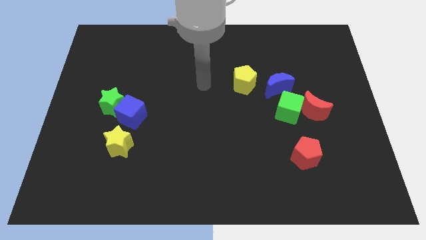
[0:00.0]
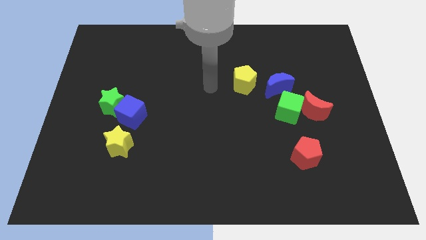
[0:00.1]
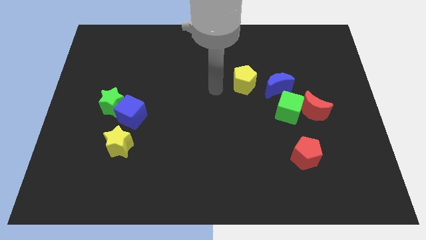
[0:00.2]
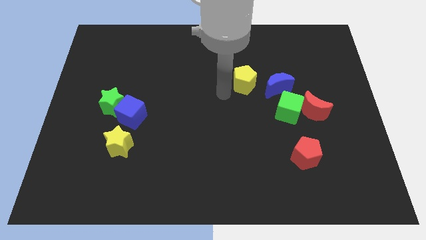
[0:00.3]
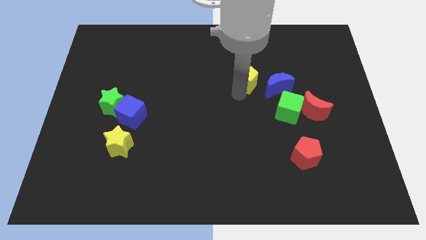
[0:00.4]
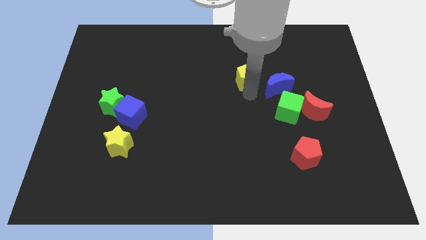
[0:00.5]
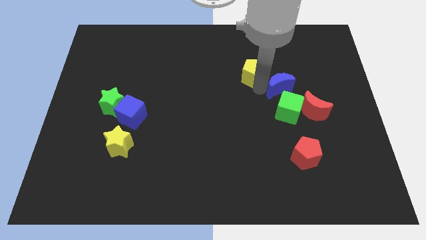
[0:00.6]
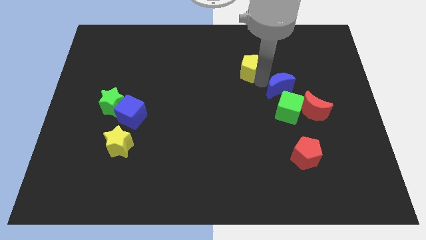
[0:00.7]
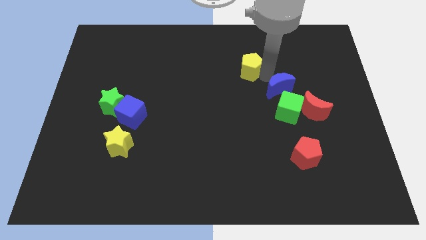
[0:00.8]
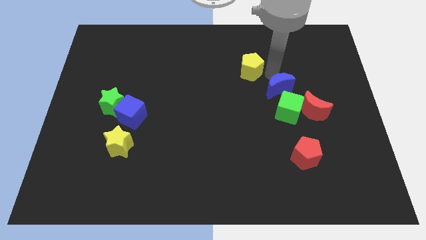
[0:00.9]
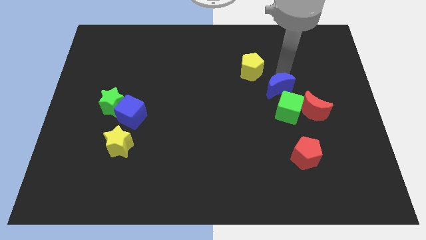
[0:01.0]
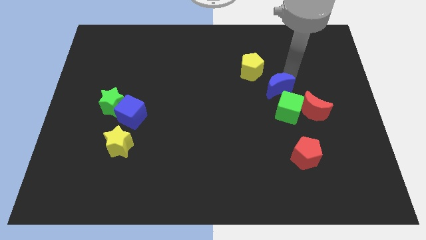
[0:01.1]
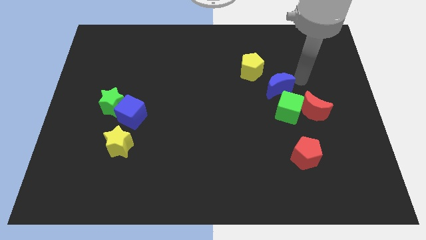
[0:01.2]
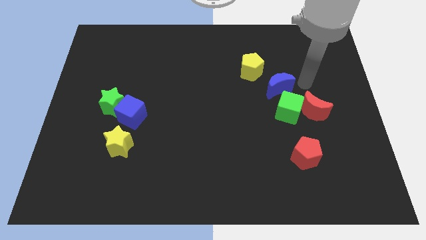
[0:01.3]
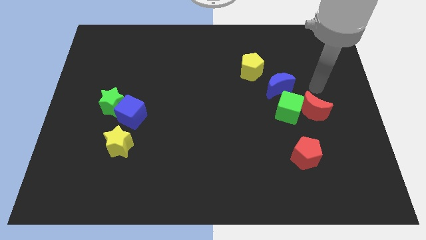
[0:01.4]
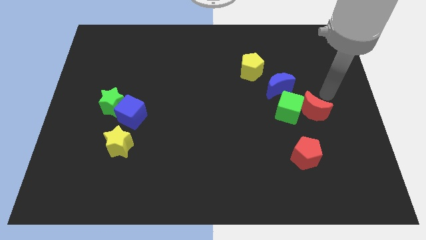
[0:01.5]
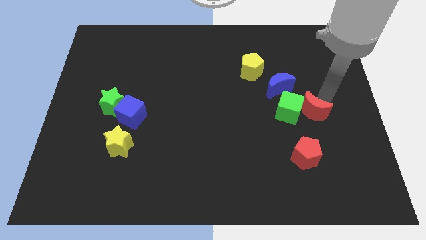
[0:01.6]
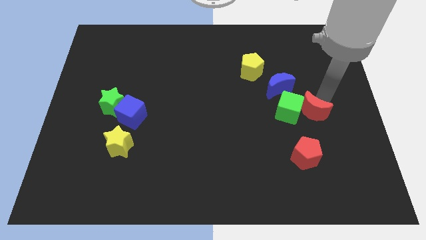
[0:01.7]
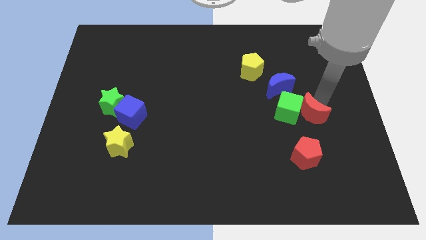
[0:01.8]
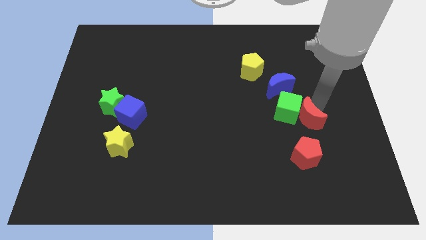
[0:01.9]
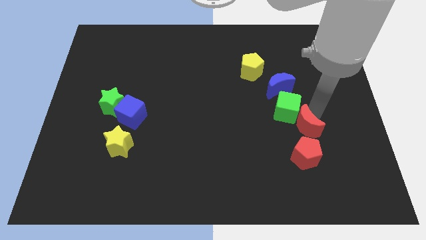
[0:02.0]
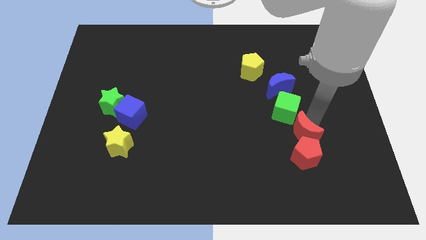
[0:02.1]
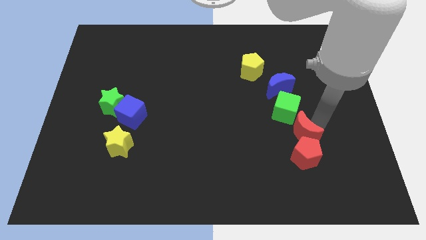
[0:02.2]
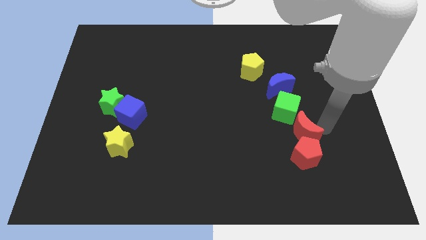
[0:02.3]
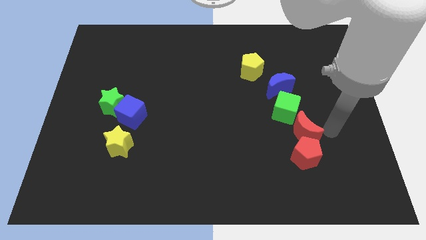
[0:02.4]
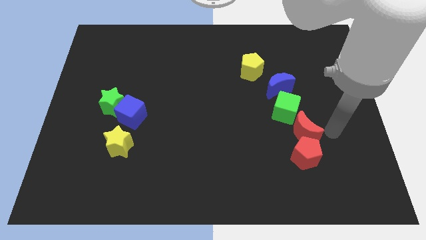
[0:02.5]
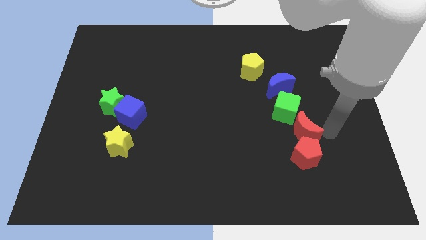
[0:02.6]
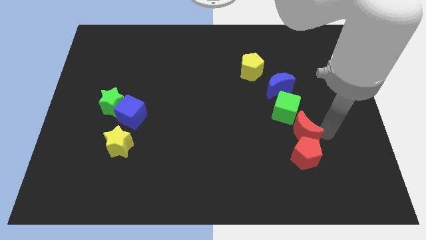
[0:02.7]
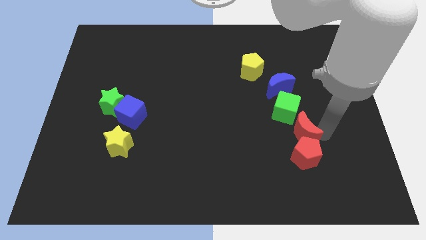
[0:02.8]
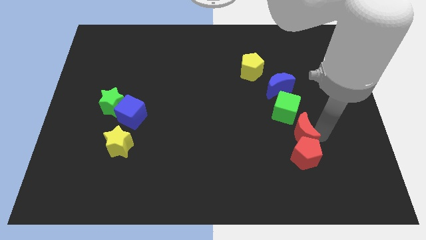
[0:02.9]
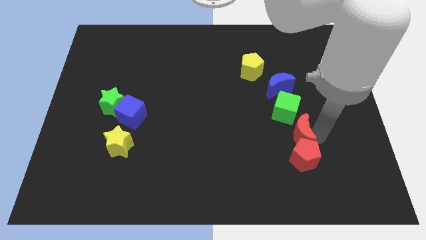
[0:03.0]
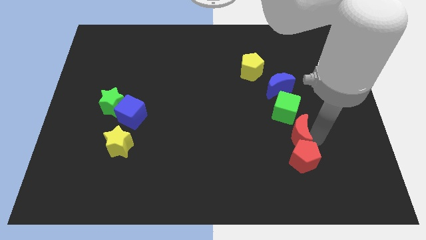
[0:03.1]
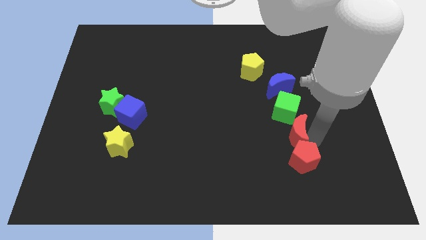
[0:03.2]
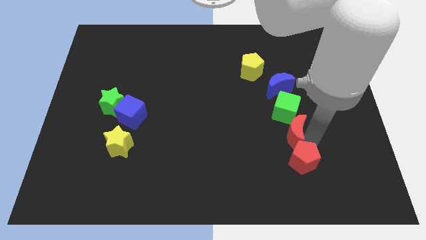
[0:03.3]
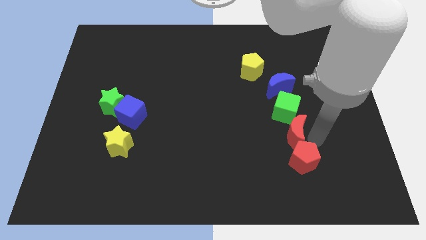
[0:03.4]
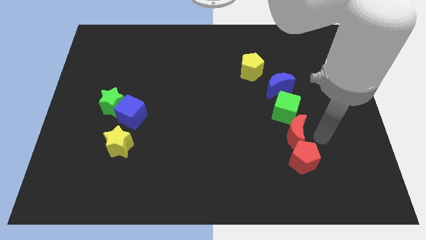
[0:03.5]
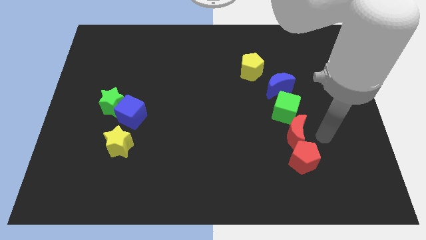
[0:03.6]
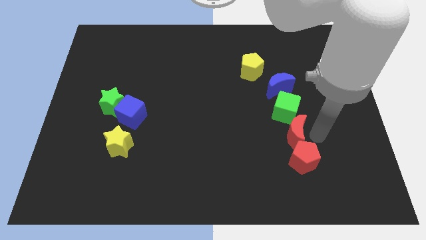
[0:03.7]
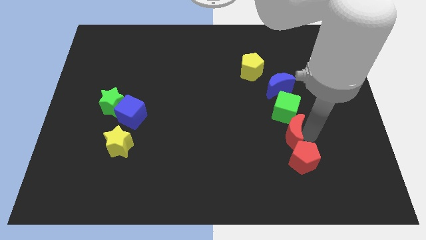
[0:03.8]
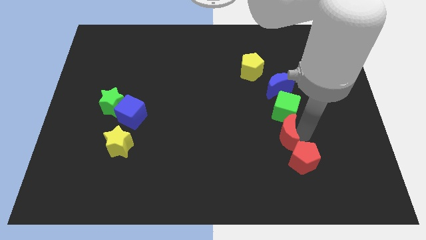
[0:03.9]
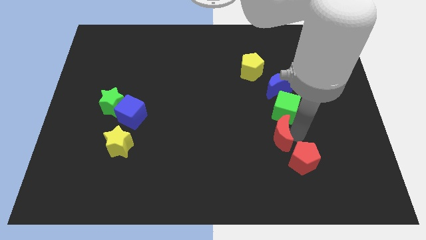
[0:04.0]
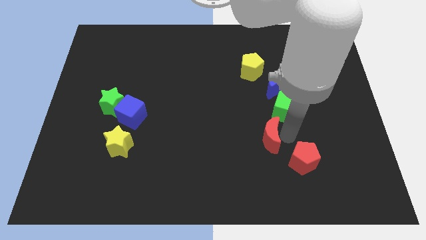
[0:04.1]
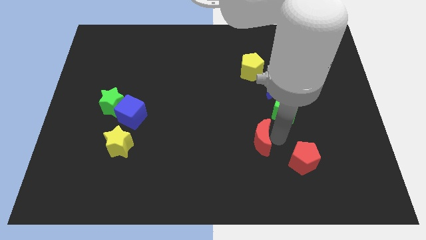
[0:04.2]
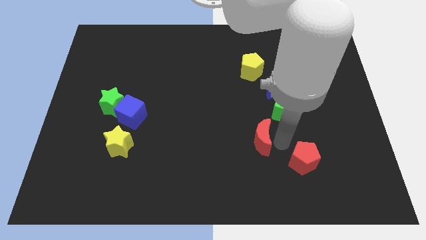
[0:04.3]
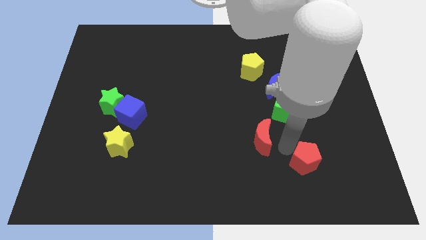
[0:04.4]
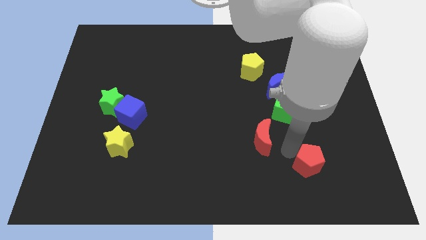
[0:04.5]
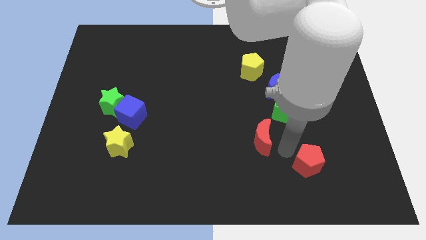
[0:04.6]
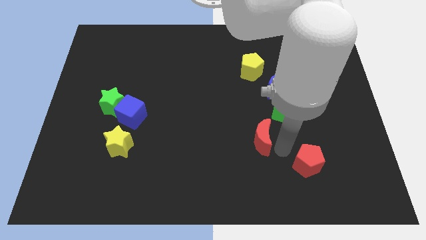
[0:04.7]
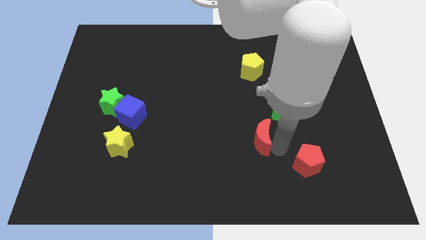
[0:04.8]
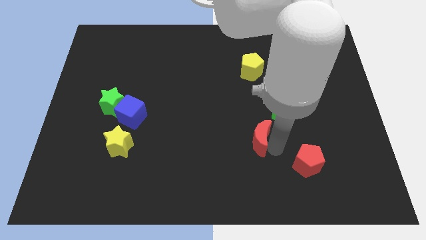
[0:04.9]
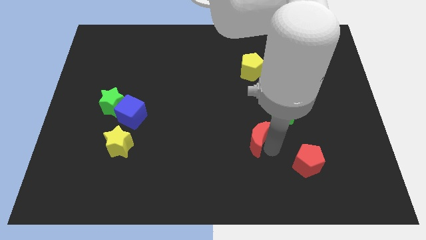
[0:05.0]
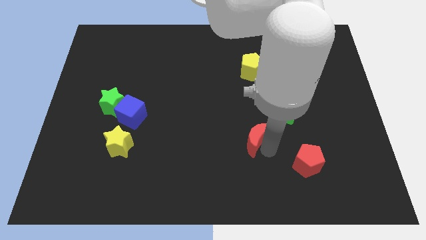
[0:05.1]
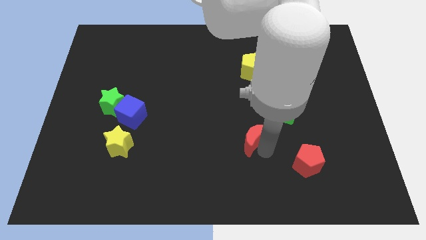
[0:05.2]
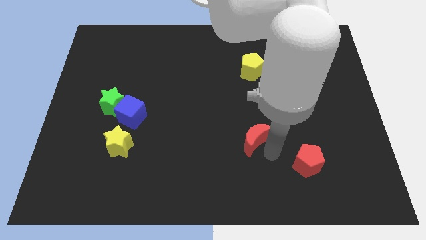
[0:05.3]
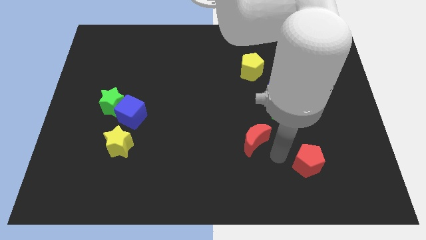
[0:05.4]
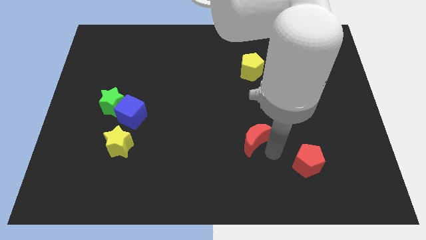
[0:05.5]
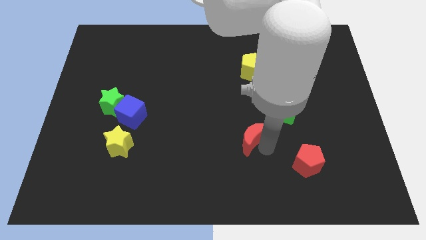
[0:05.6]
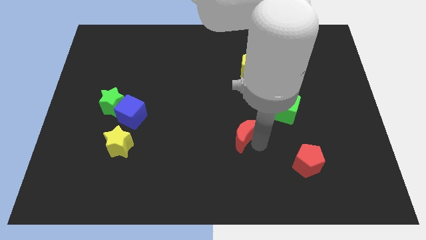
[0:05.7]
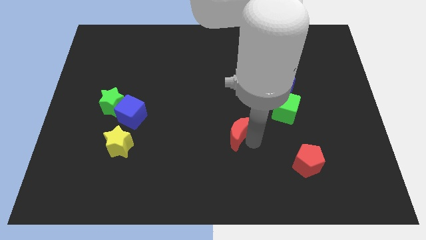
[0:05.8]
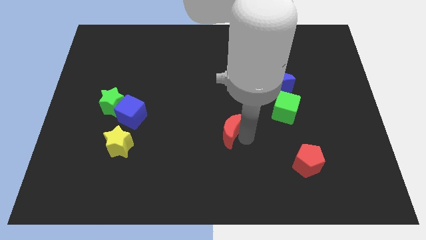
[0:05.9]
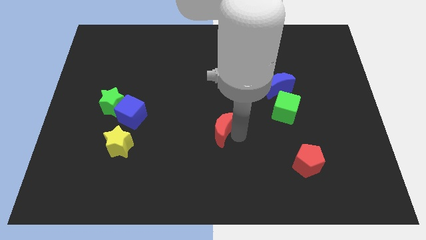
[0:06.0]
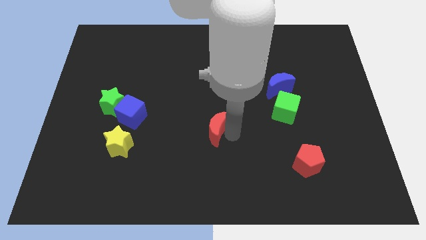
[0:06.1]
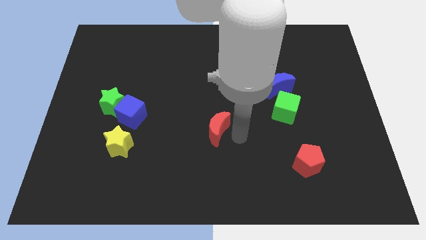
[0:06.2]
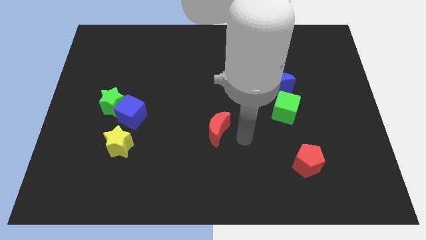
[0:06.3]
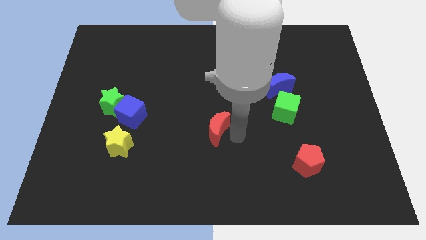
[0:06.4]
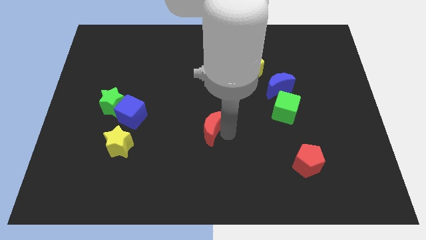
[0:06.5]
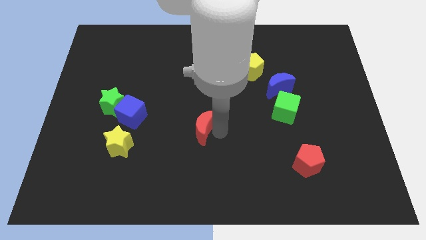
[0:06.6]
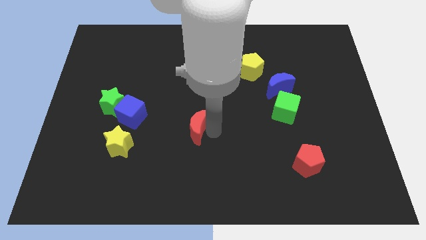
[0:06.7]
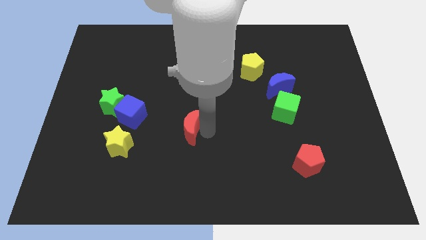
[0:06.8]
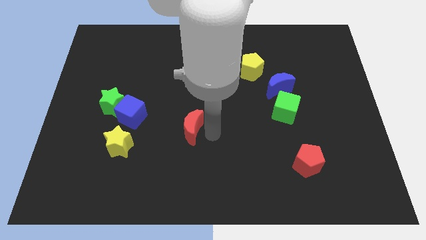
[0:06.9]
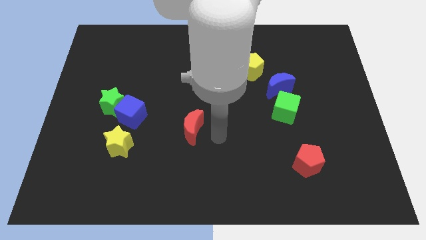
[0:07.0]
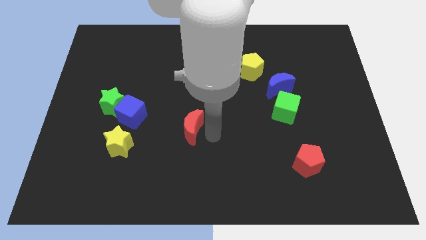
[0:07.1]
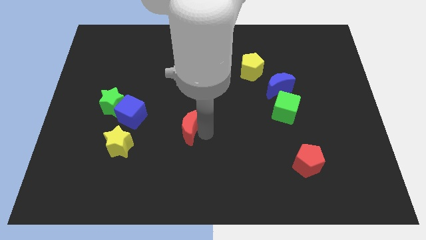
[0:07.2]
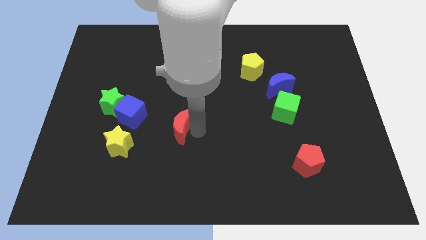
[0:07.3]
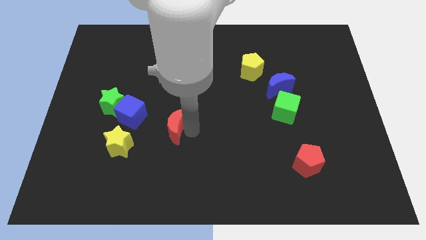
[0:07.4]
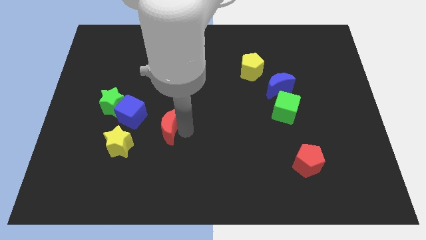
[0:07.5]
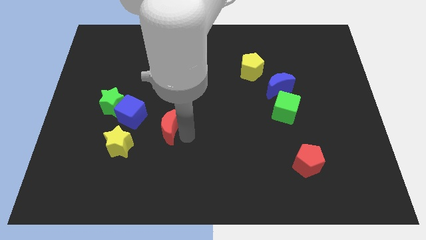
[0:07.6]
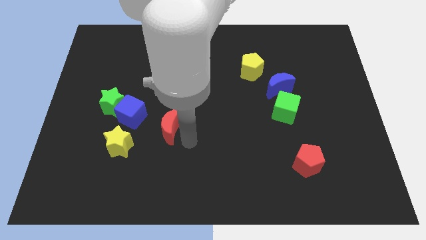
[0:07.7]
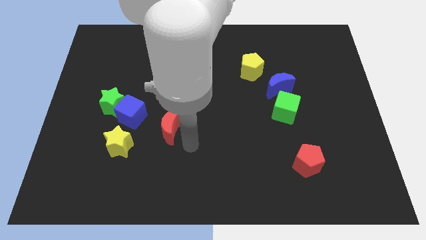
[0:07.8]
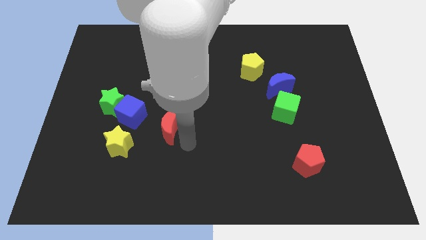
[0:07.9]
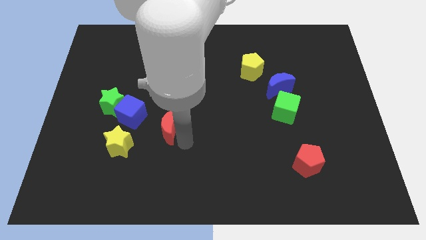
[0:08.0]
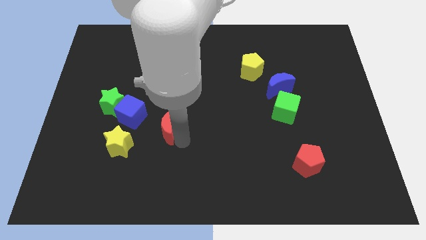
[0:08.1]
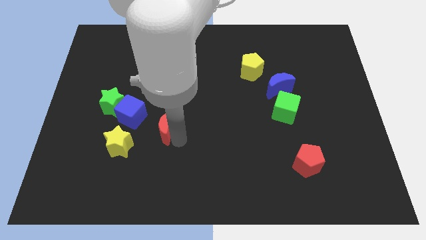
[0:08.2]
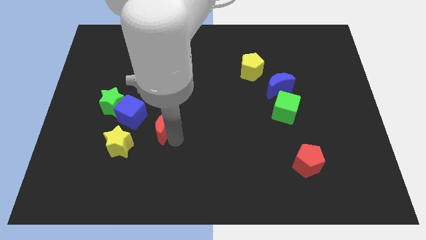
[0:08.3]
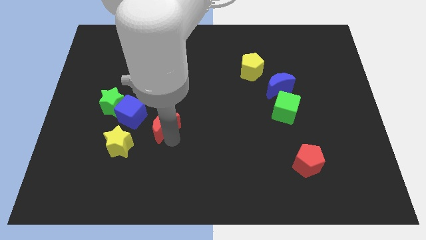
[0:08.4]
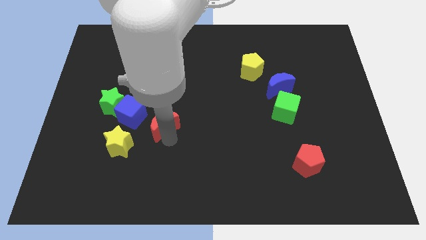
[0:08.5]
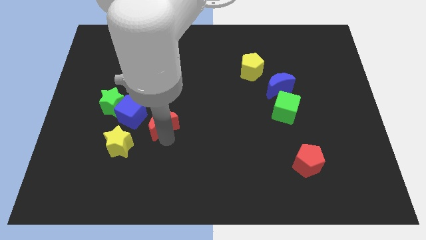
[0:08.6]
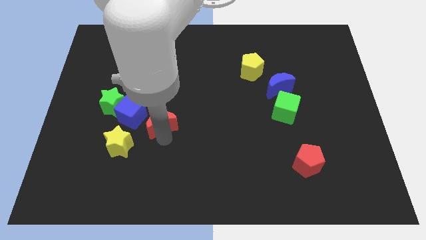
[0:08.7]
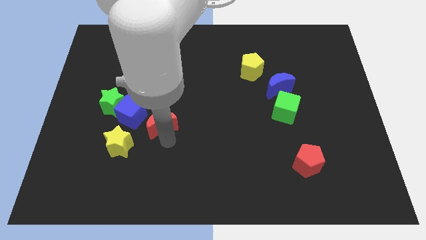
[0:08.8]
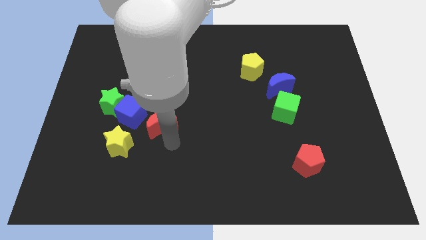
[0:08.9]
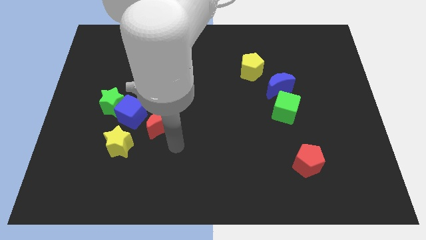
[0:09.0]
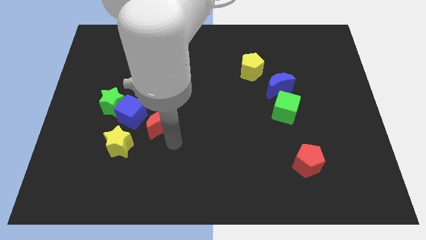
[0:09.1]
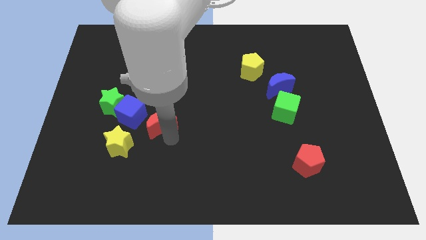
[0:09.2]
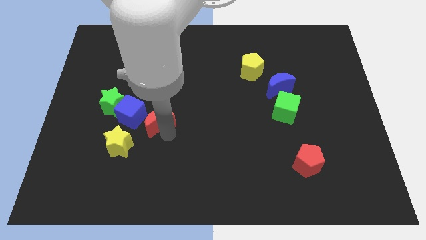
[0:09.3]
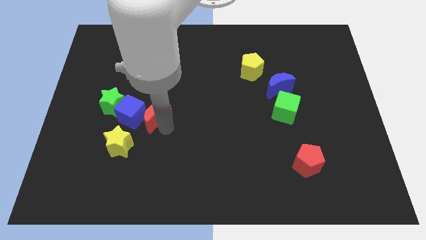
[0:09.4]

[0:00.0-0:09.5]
put the red moon next to the blue cube
